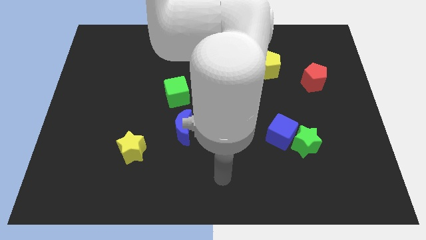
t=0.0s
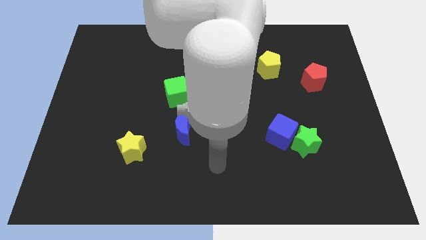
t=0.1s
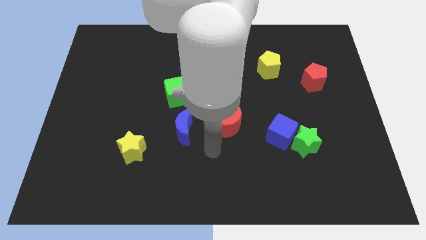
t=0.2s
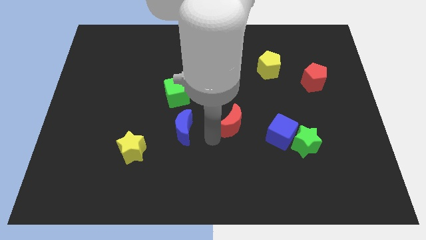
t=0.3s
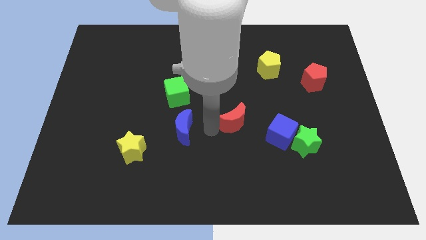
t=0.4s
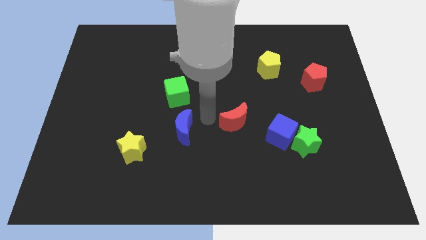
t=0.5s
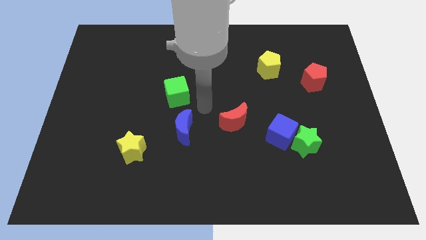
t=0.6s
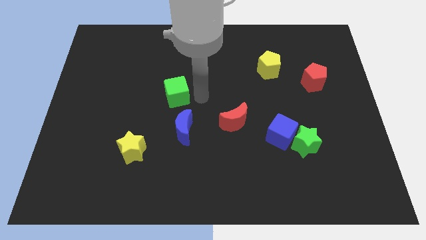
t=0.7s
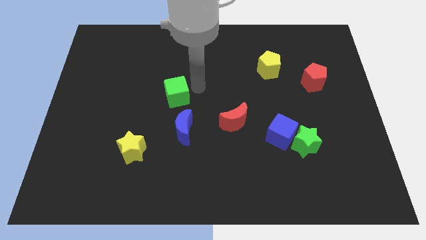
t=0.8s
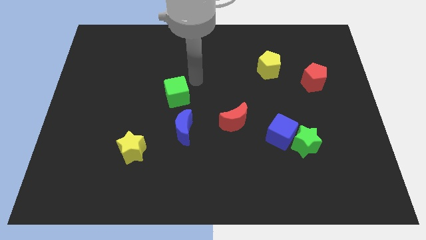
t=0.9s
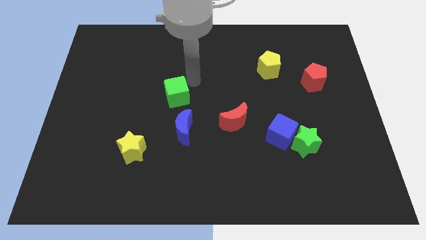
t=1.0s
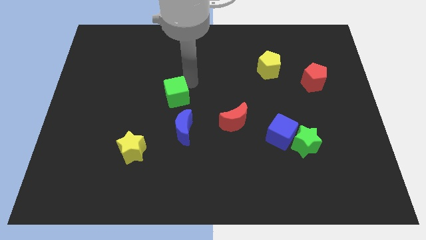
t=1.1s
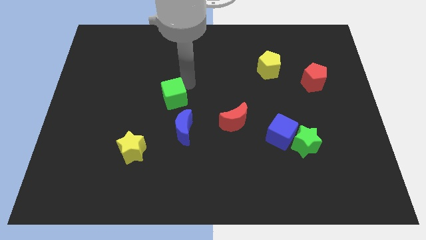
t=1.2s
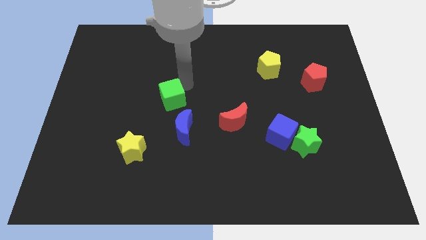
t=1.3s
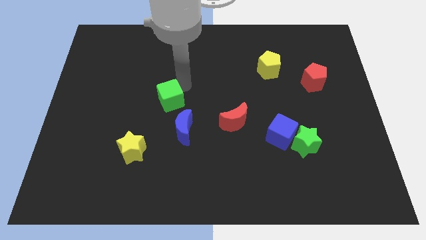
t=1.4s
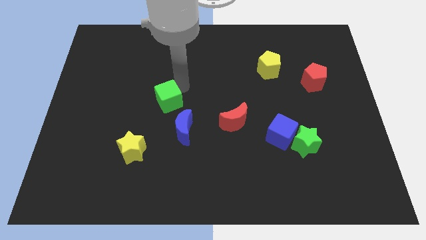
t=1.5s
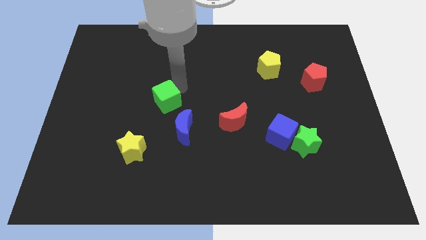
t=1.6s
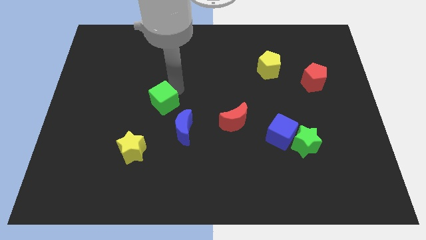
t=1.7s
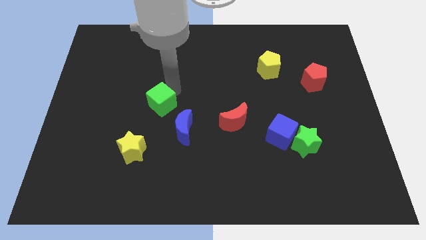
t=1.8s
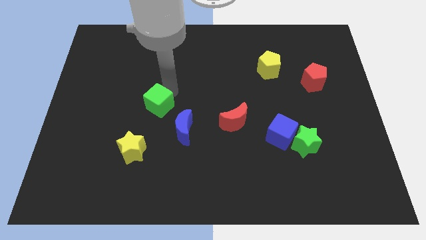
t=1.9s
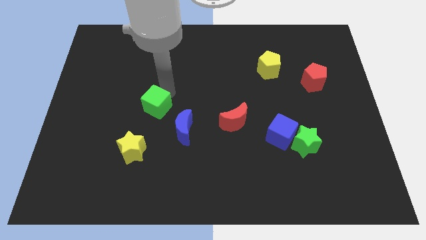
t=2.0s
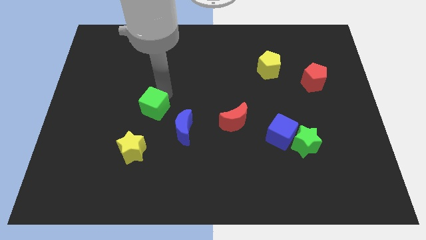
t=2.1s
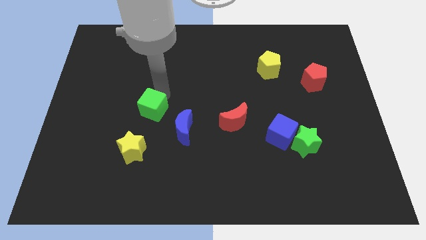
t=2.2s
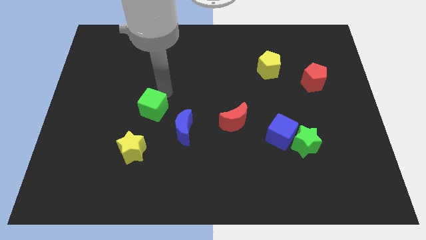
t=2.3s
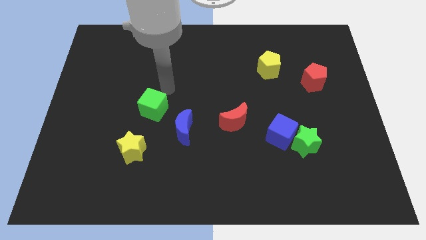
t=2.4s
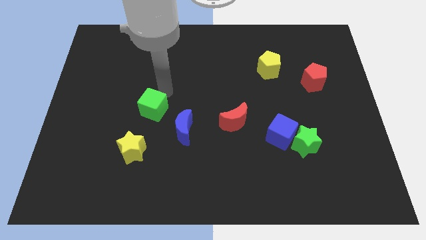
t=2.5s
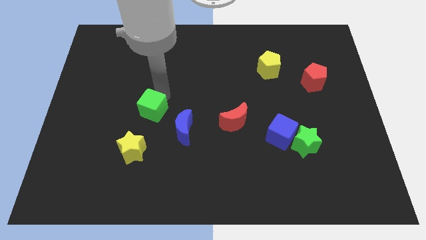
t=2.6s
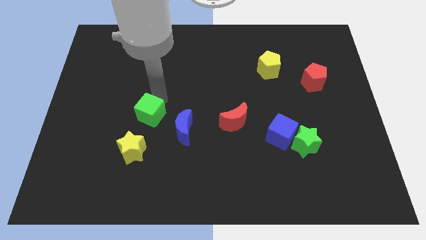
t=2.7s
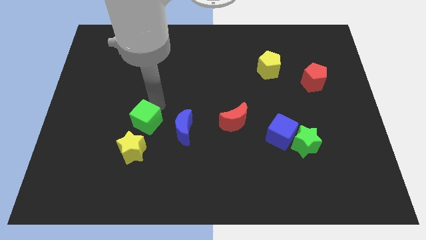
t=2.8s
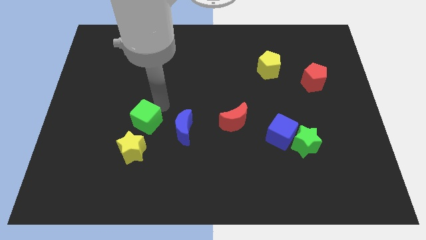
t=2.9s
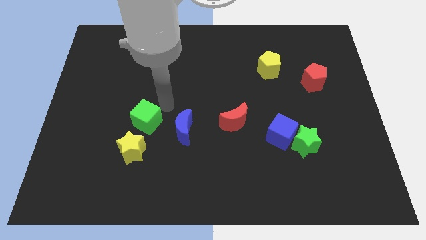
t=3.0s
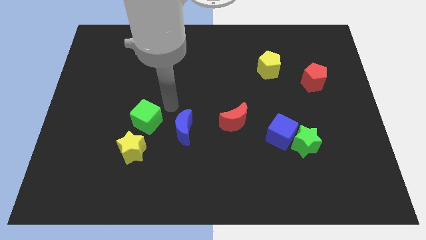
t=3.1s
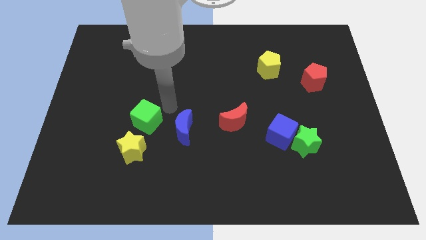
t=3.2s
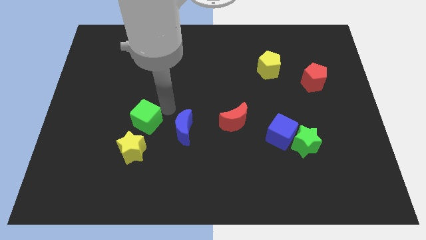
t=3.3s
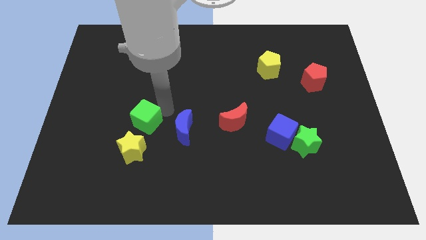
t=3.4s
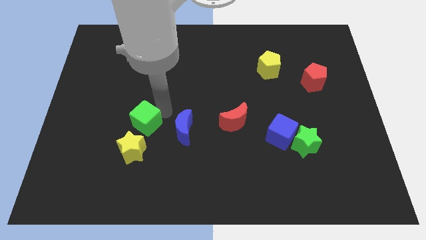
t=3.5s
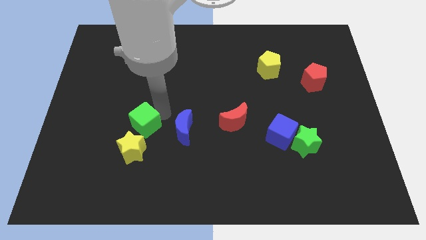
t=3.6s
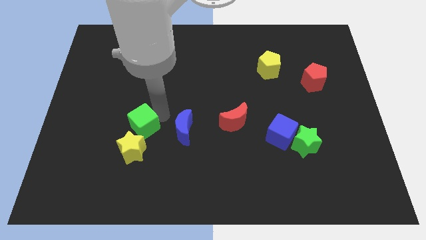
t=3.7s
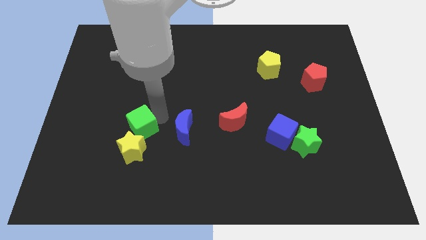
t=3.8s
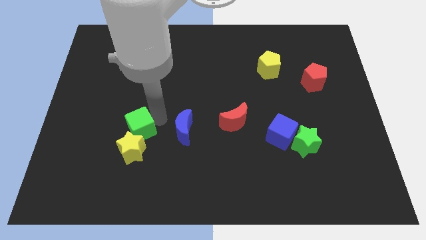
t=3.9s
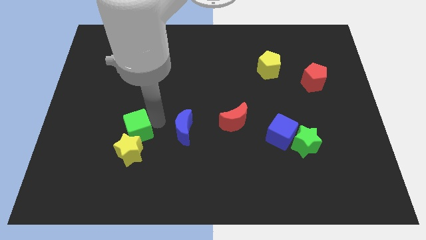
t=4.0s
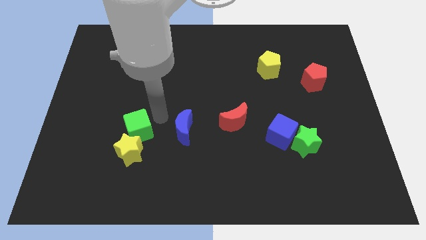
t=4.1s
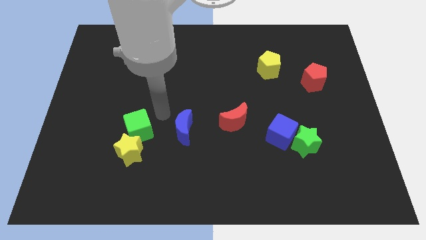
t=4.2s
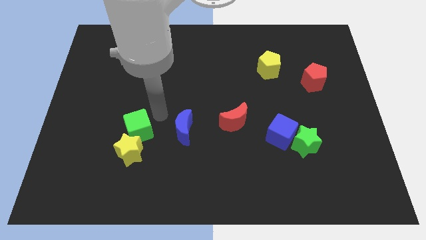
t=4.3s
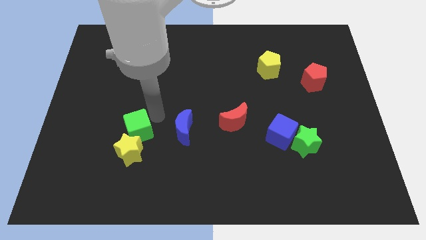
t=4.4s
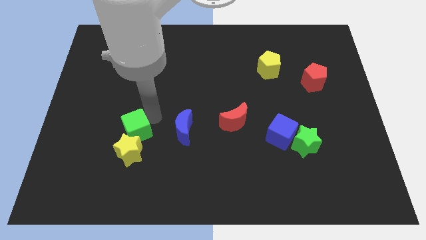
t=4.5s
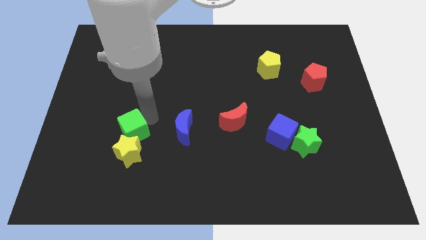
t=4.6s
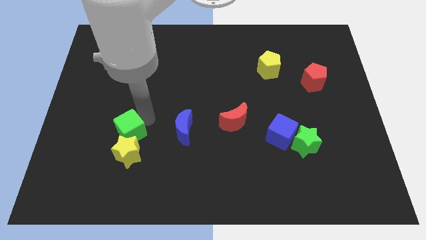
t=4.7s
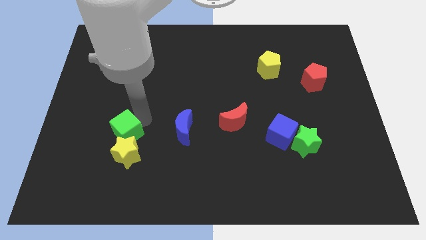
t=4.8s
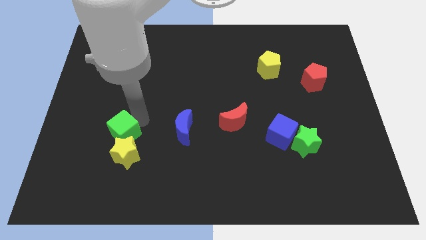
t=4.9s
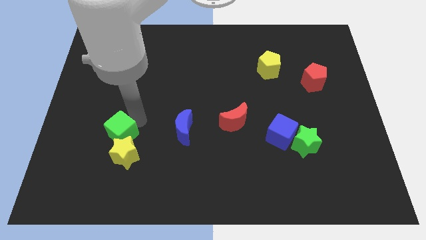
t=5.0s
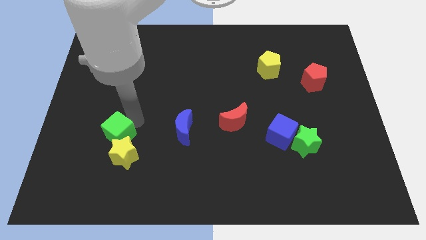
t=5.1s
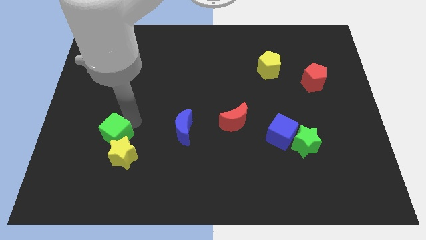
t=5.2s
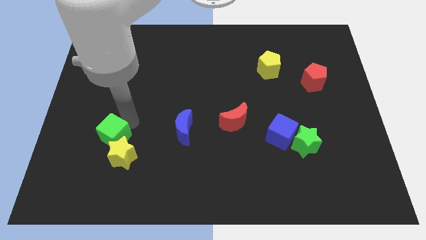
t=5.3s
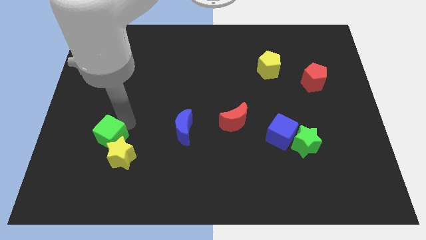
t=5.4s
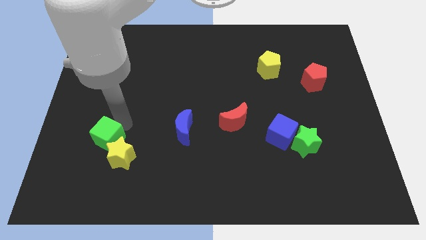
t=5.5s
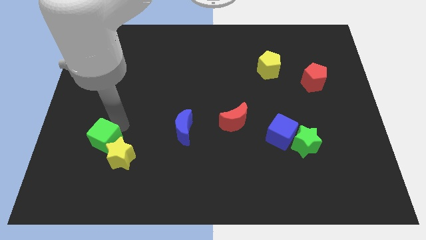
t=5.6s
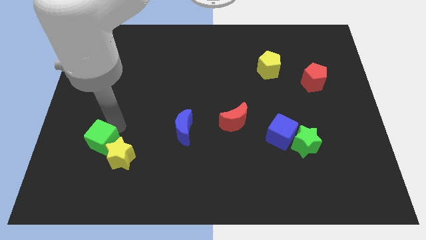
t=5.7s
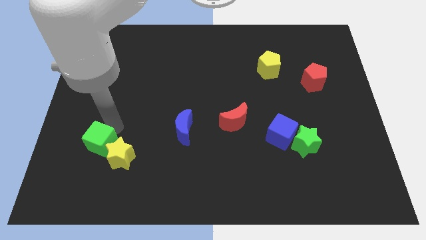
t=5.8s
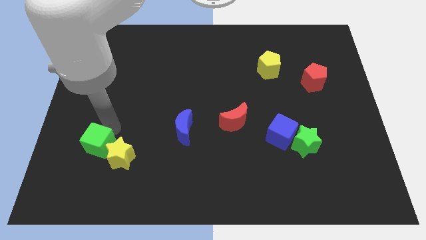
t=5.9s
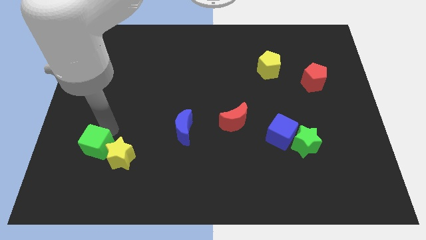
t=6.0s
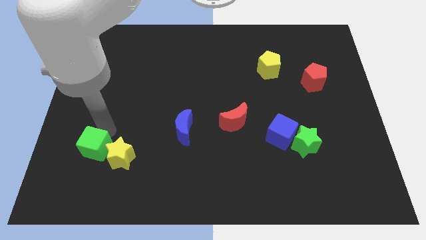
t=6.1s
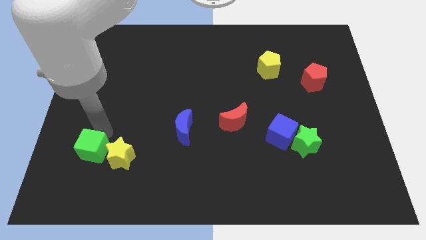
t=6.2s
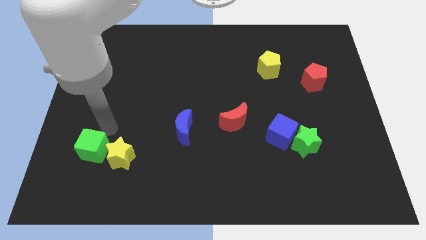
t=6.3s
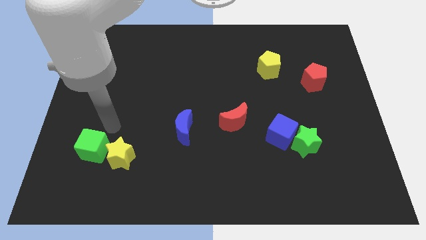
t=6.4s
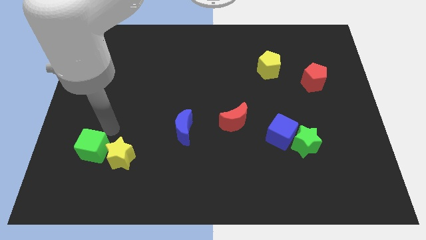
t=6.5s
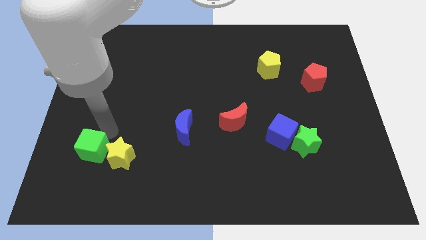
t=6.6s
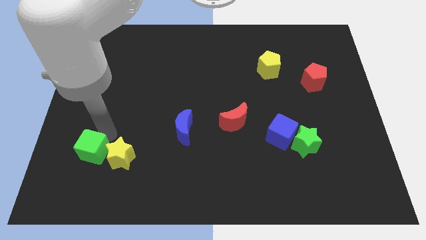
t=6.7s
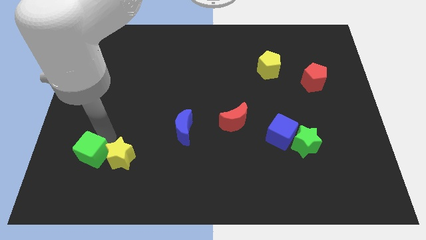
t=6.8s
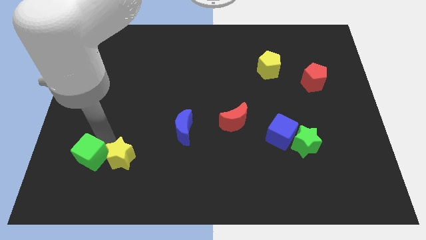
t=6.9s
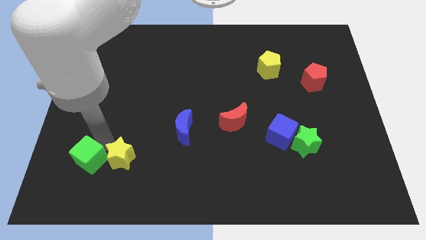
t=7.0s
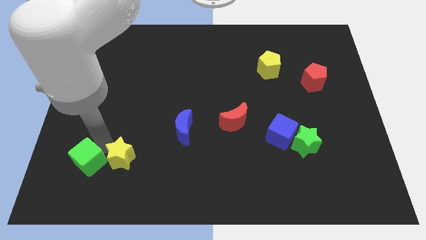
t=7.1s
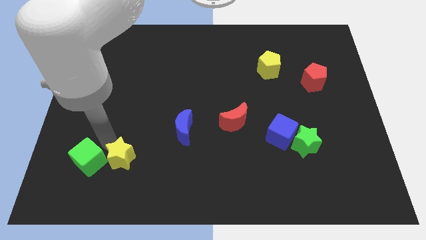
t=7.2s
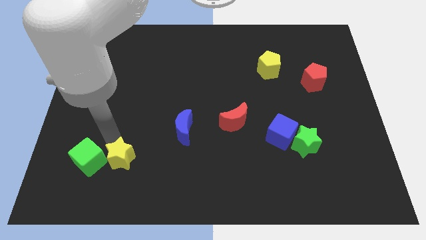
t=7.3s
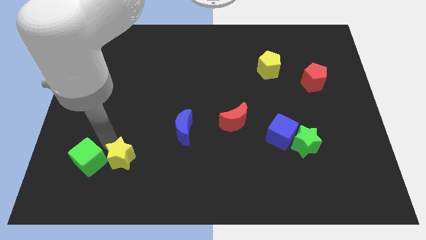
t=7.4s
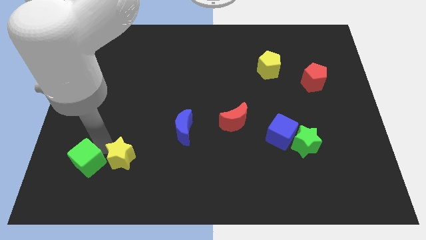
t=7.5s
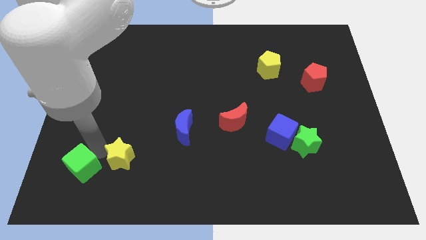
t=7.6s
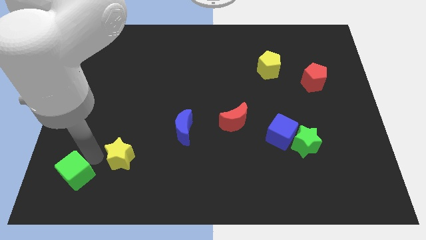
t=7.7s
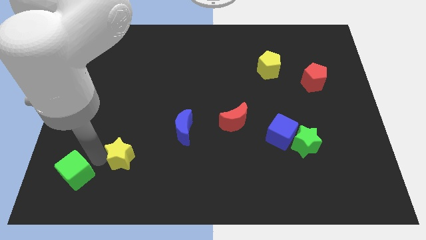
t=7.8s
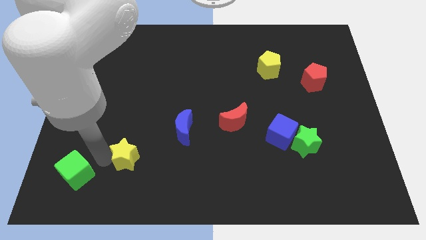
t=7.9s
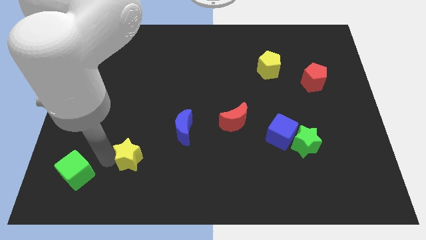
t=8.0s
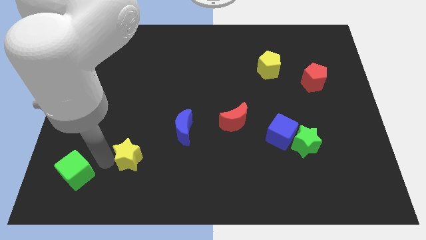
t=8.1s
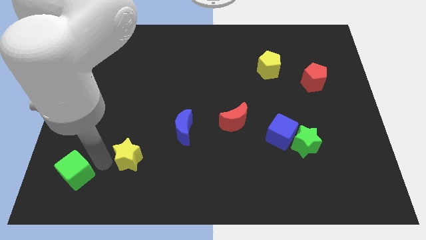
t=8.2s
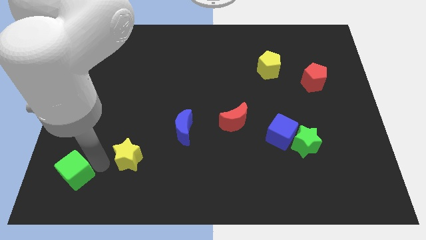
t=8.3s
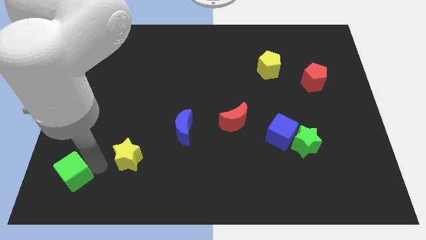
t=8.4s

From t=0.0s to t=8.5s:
push the green cube to the bottom left of the board
